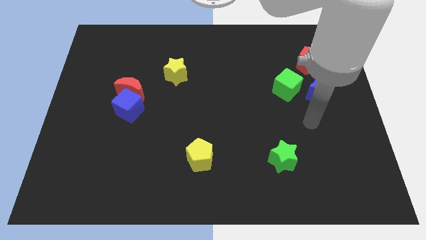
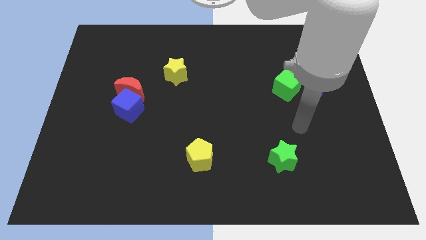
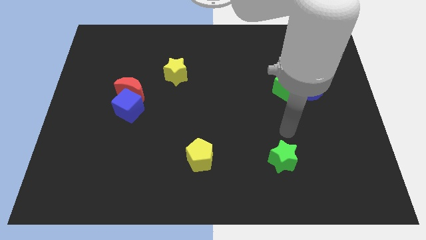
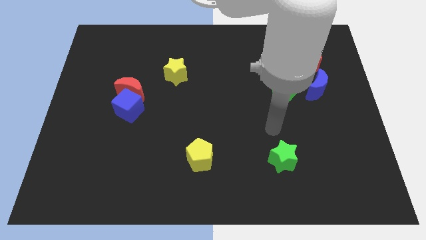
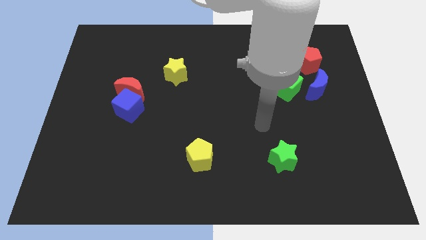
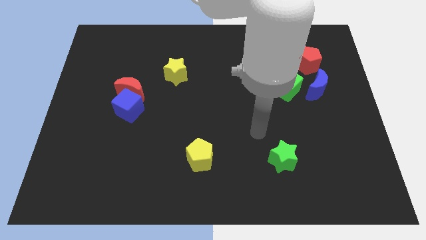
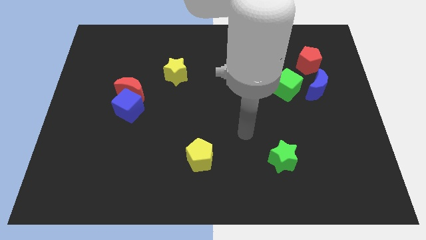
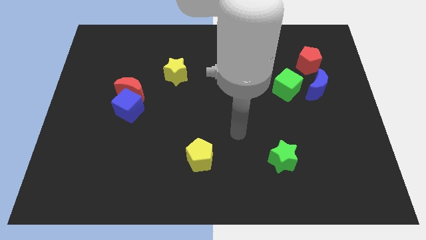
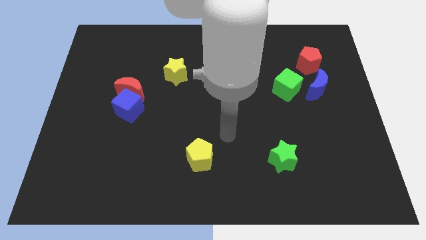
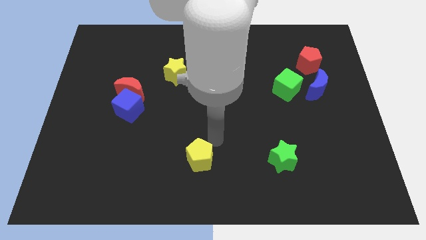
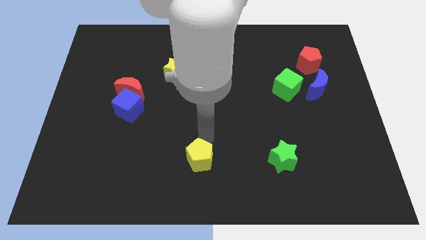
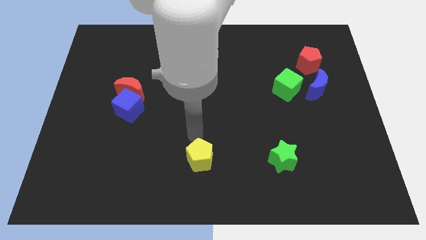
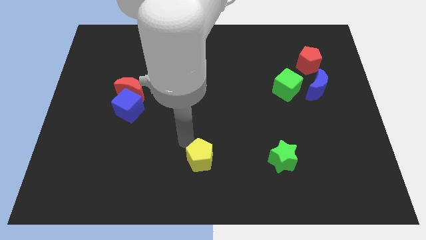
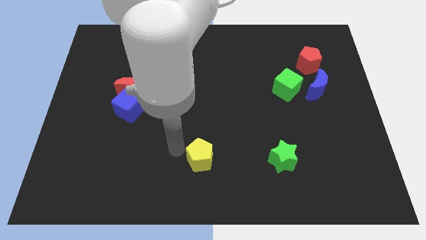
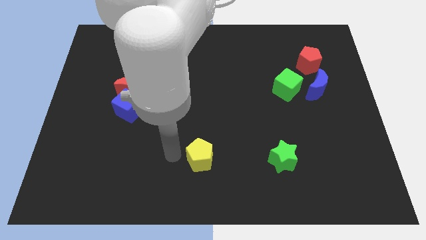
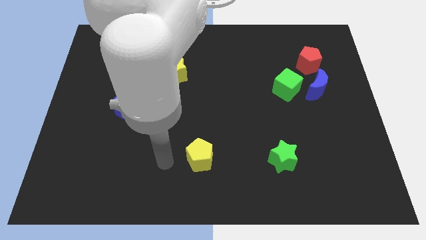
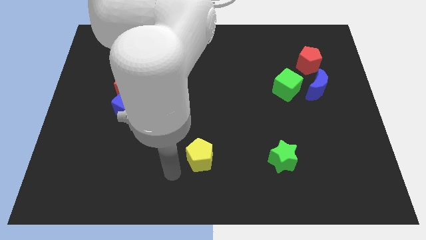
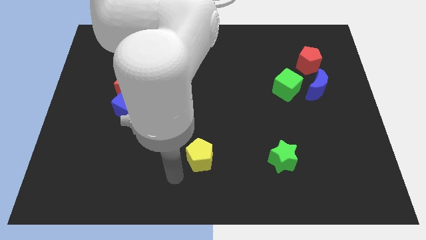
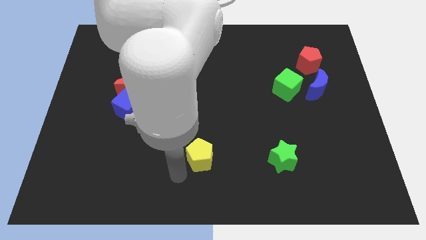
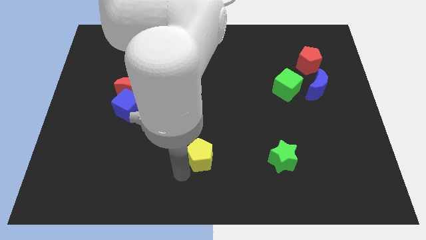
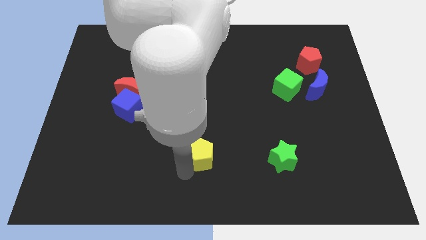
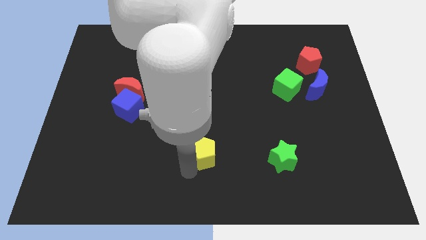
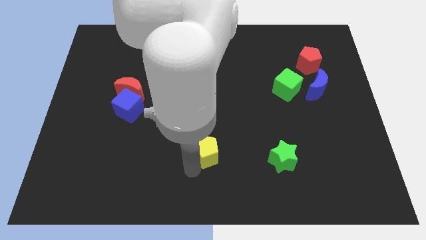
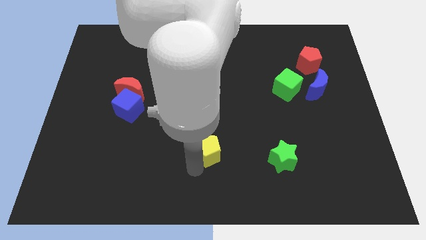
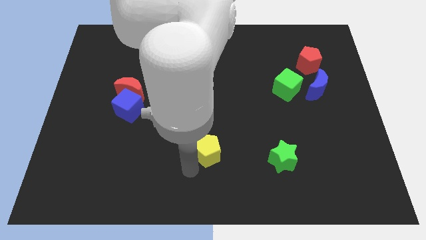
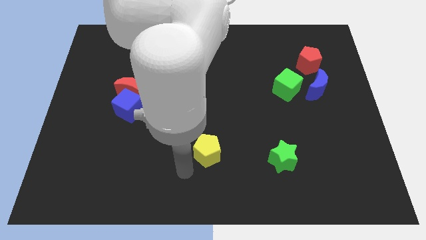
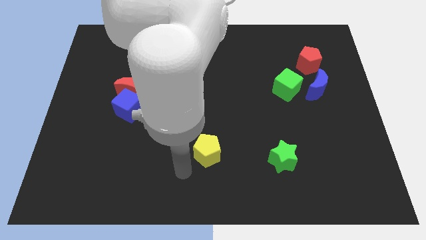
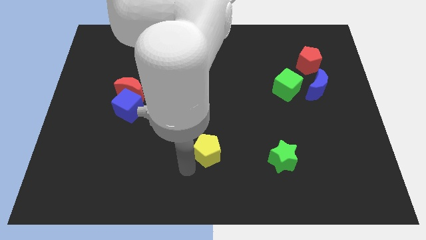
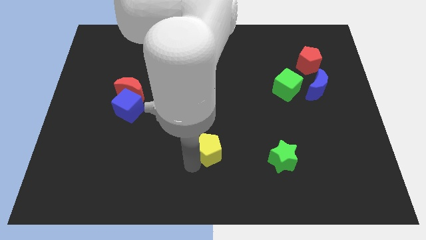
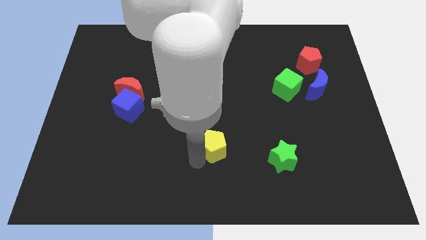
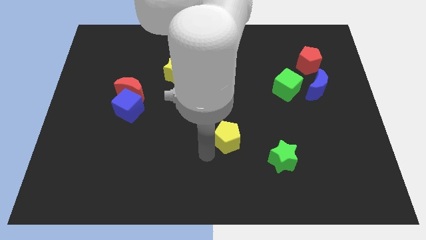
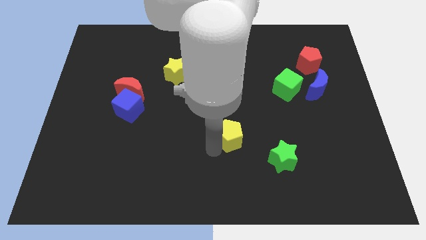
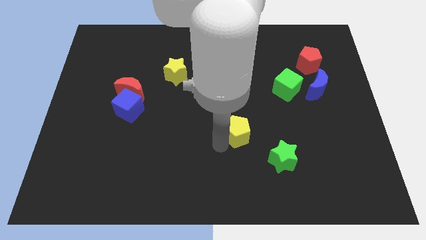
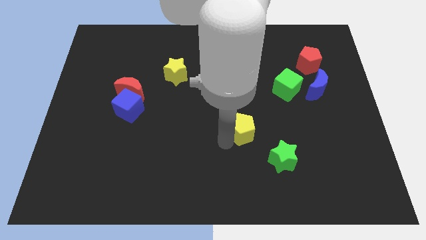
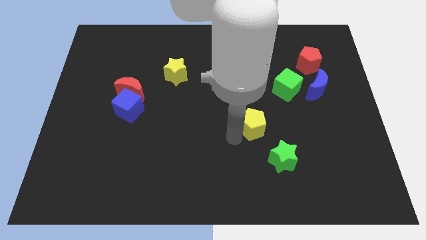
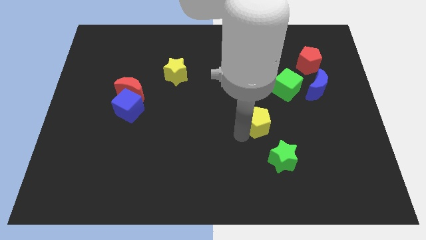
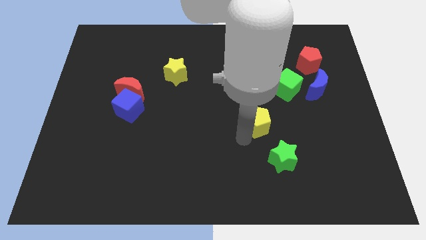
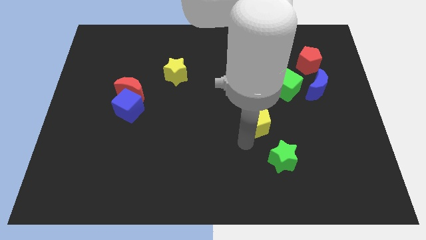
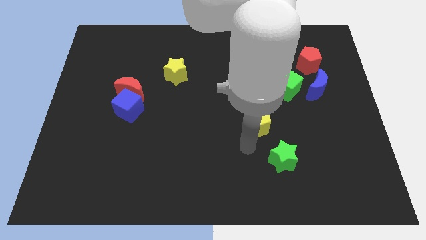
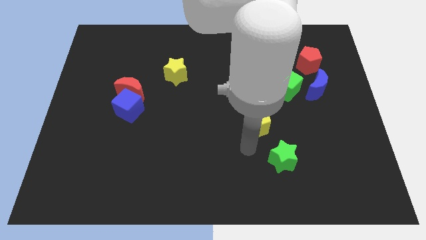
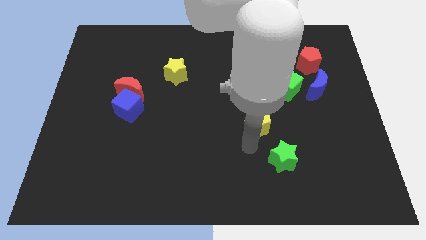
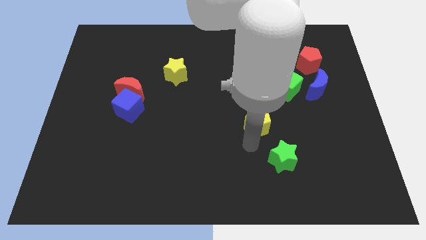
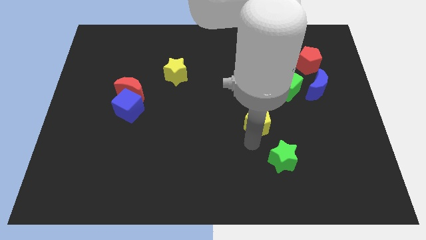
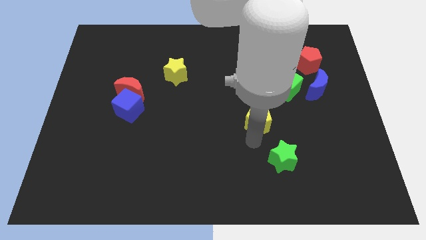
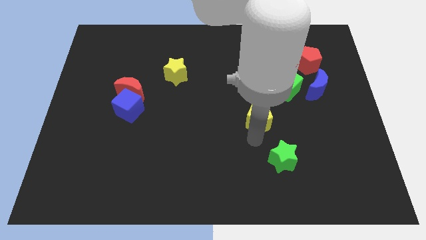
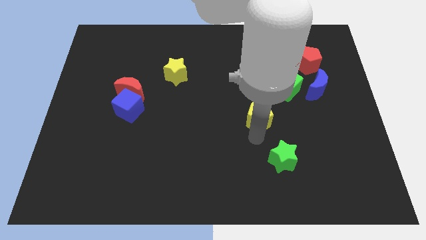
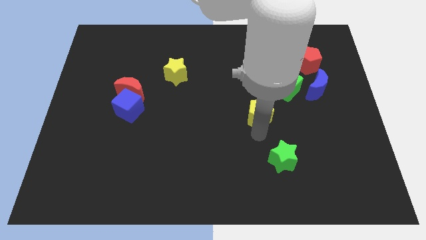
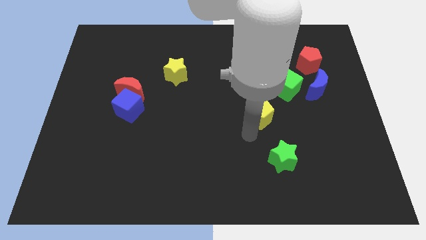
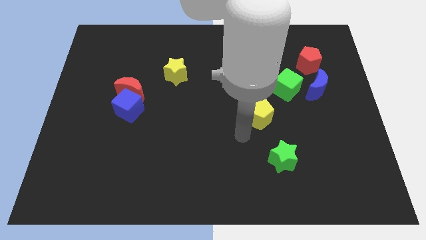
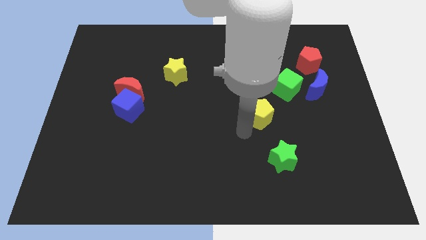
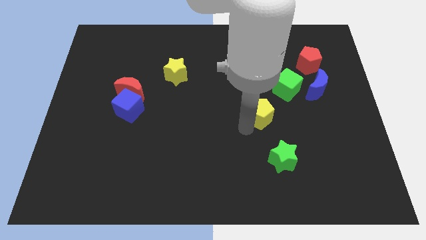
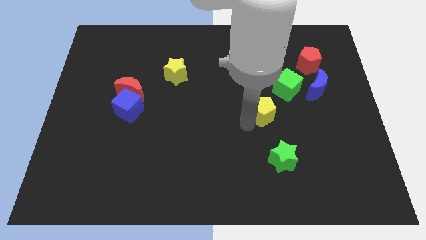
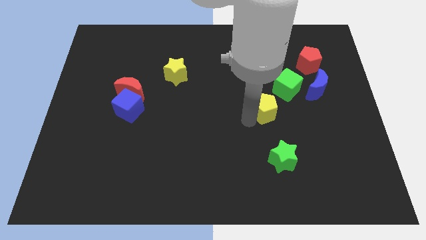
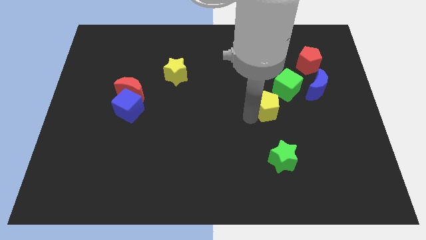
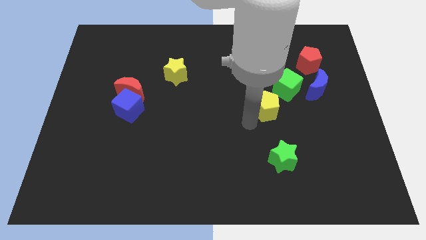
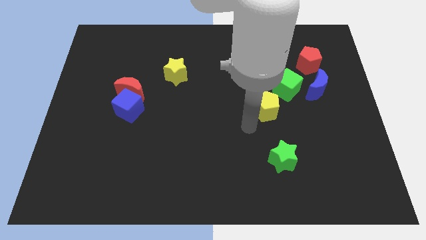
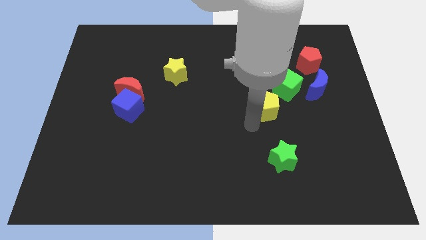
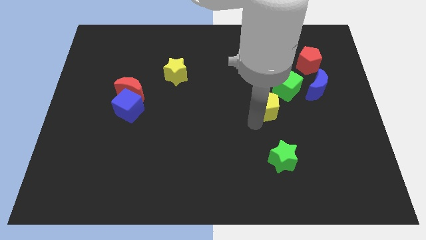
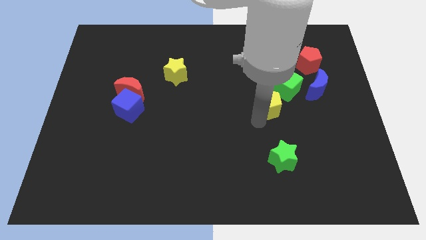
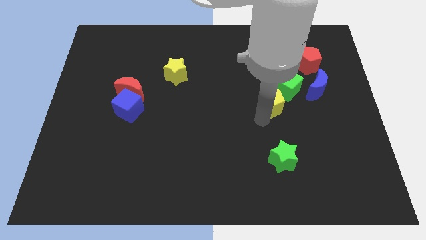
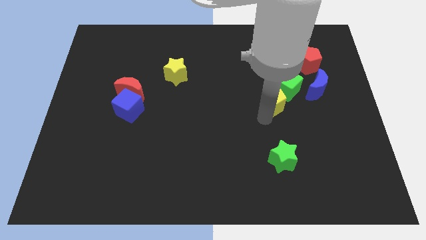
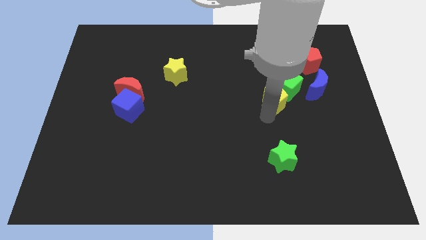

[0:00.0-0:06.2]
put the yellow pentagon towards the green cube

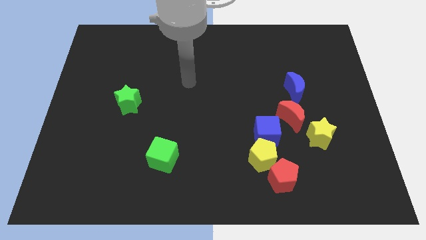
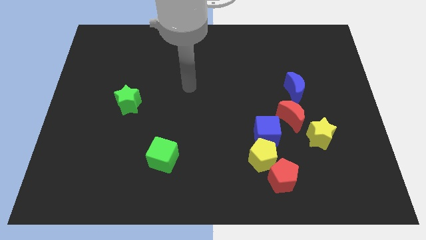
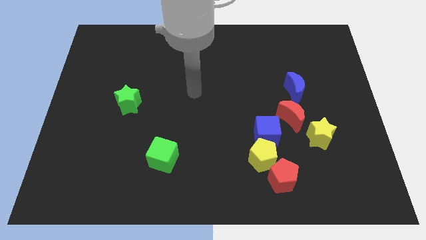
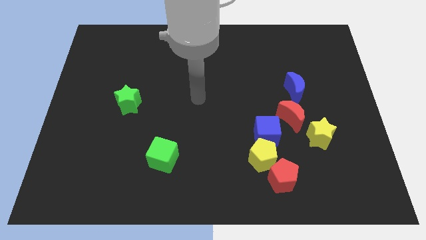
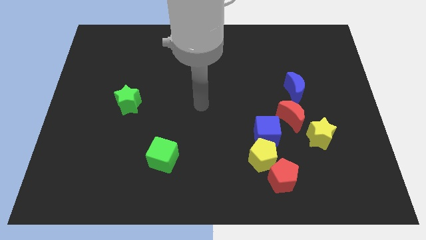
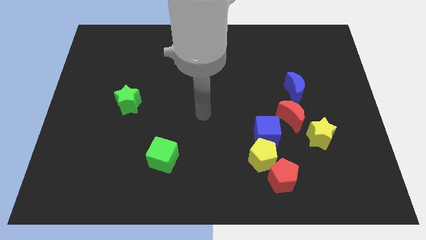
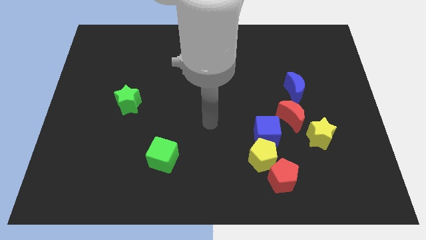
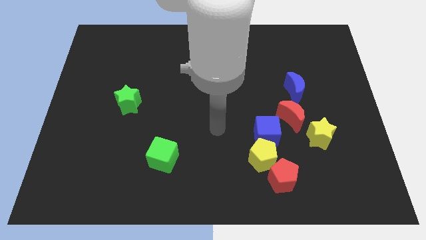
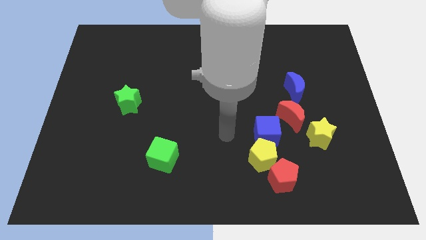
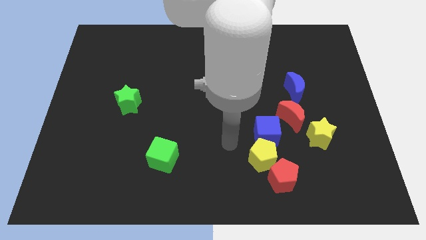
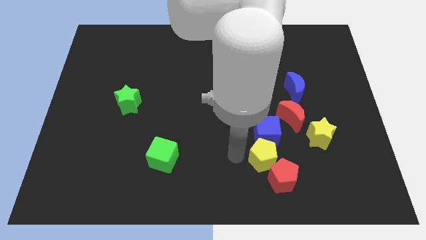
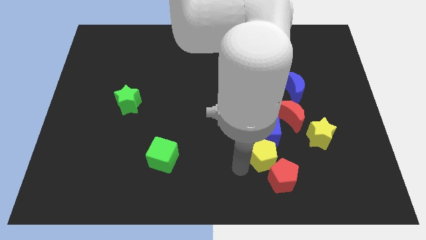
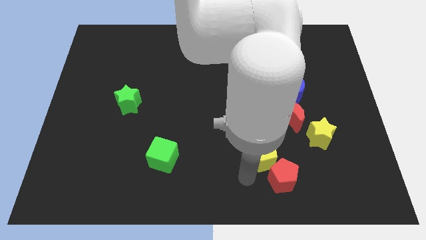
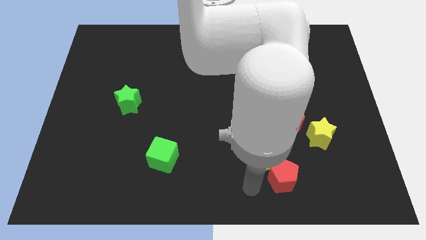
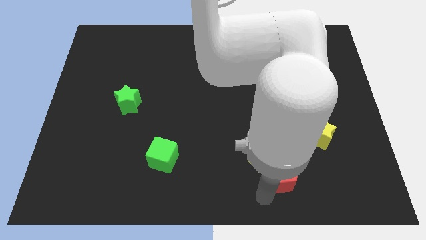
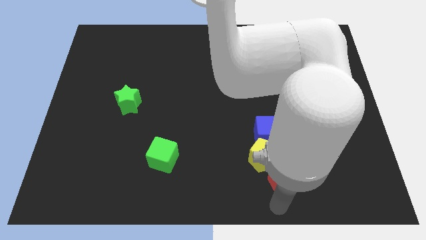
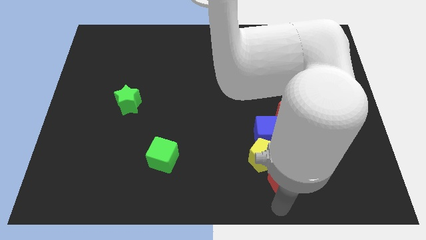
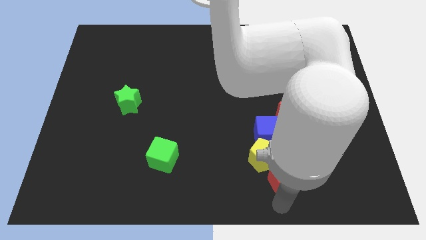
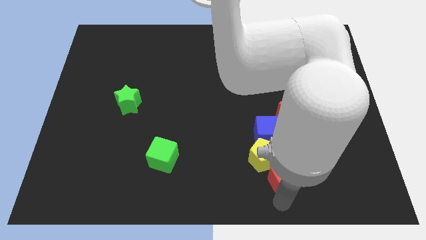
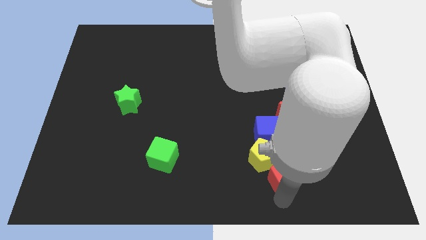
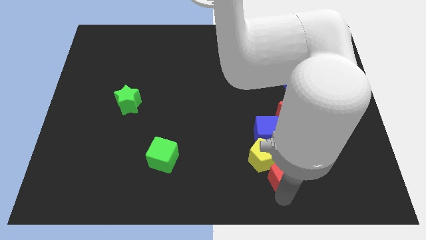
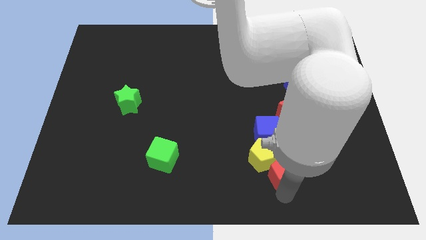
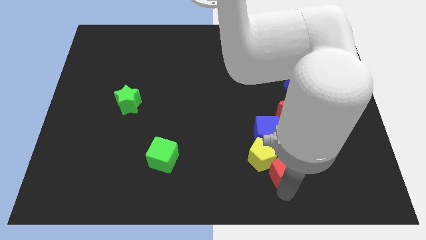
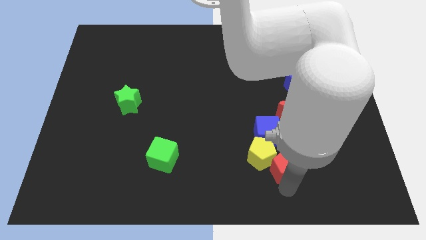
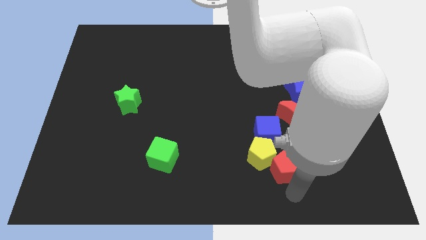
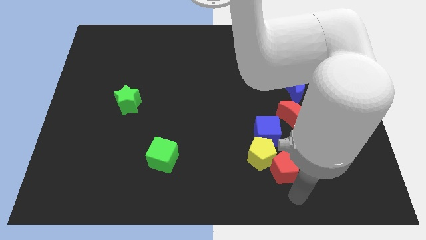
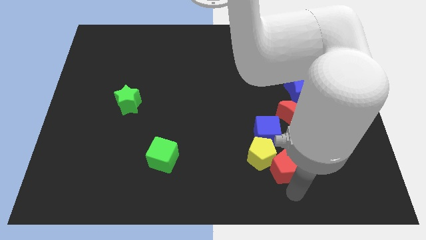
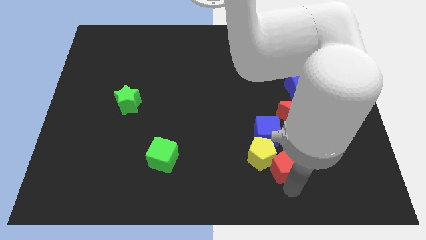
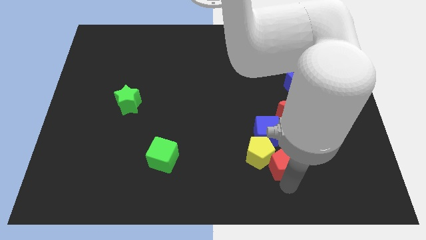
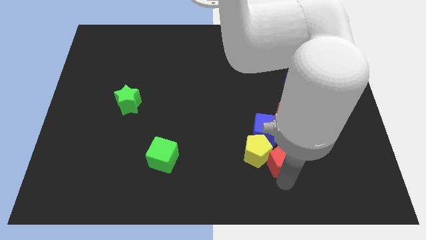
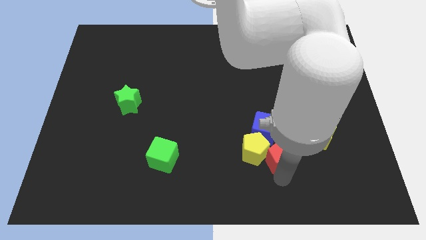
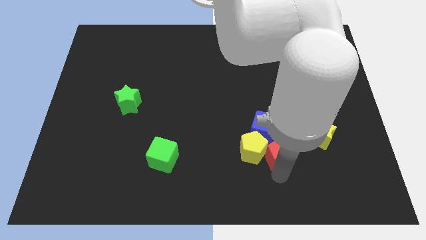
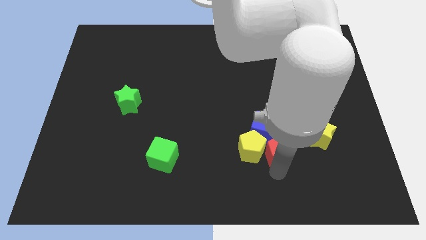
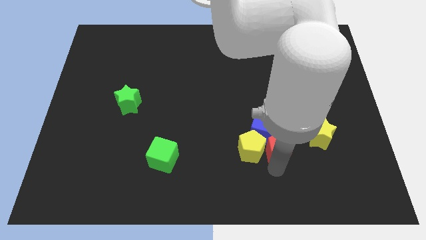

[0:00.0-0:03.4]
put the red pentagon close to the blue cube
